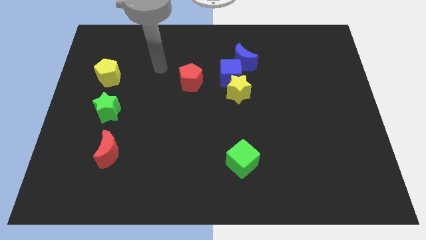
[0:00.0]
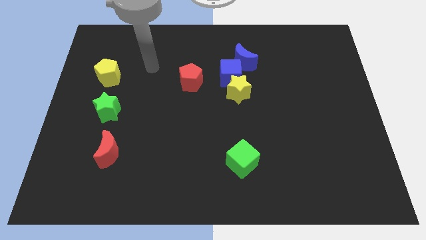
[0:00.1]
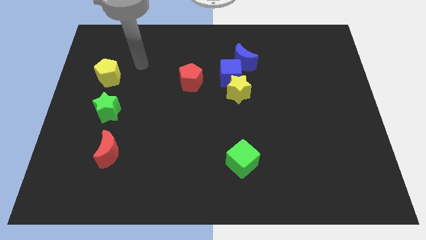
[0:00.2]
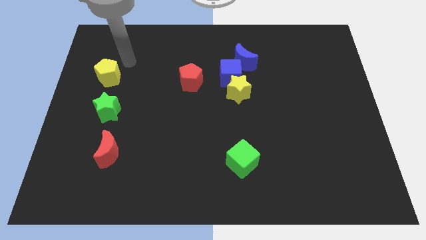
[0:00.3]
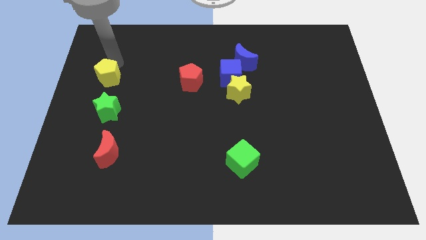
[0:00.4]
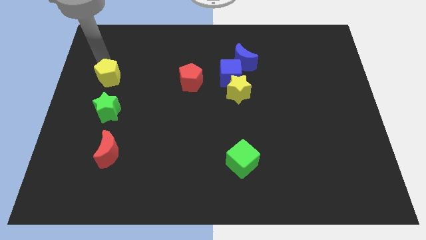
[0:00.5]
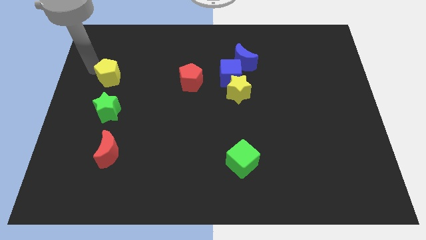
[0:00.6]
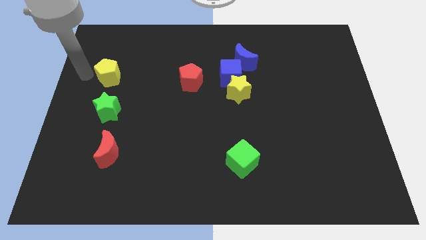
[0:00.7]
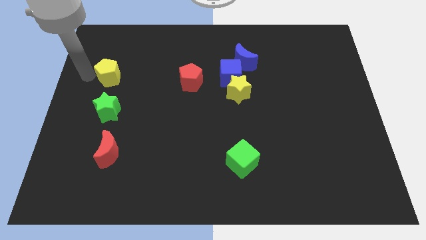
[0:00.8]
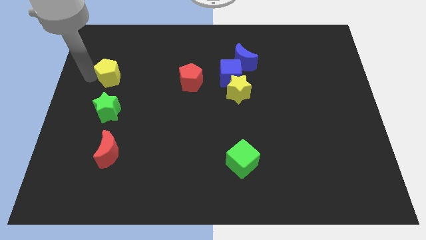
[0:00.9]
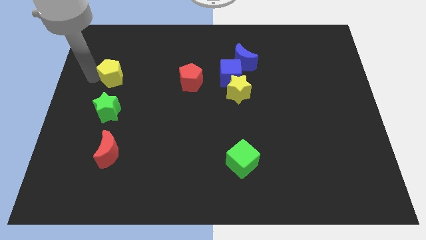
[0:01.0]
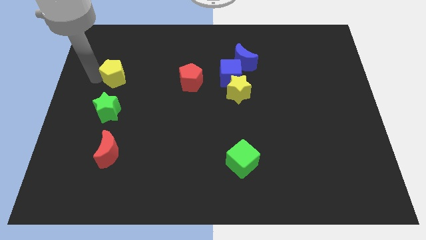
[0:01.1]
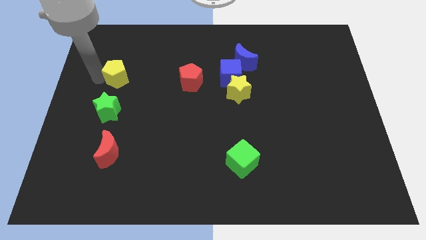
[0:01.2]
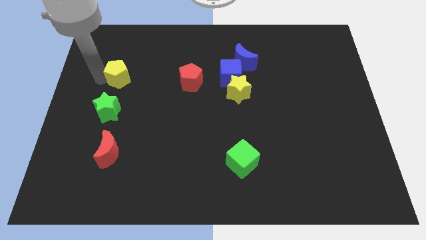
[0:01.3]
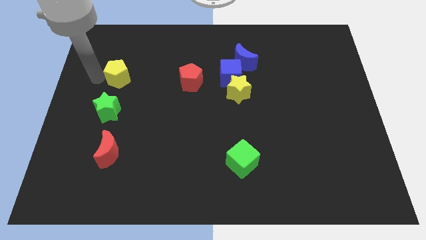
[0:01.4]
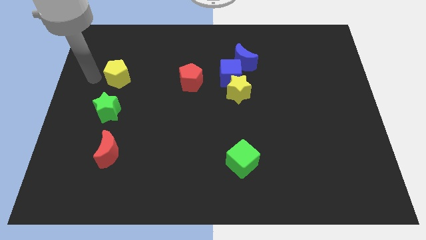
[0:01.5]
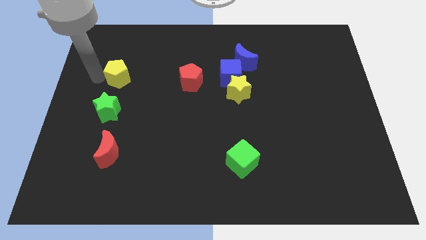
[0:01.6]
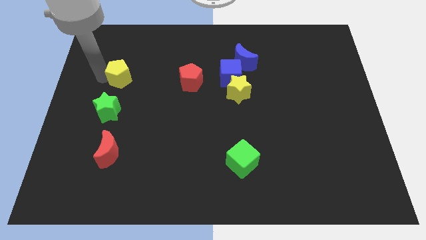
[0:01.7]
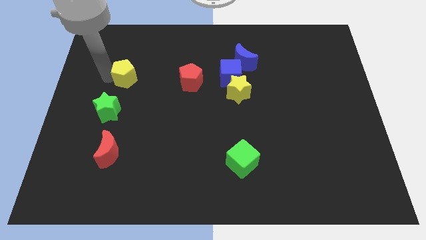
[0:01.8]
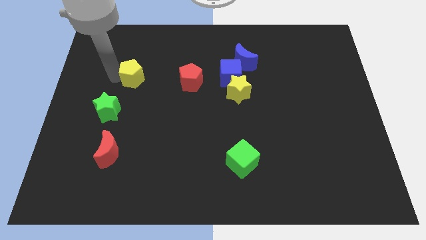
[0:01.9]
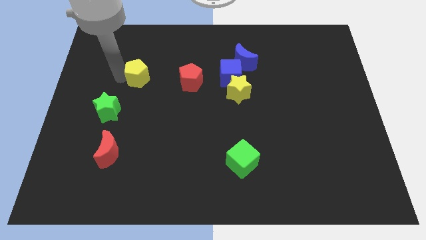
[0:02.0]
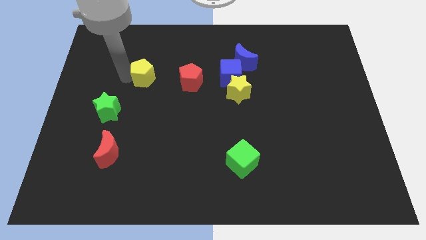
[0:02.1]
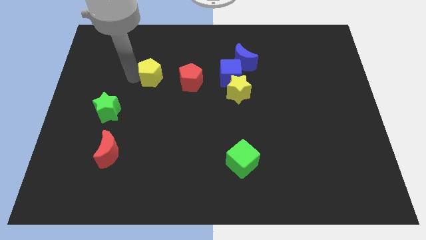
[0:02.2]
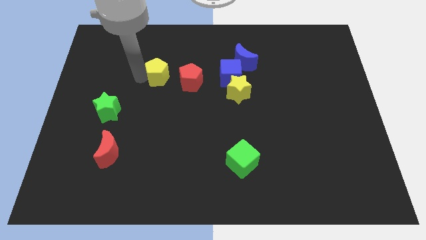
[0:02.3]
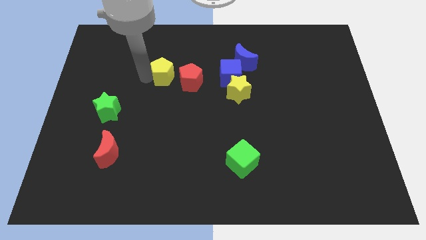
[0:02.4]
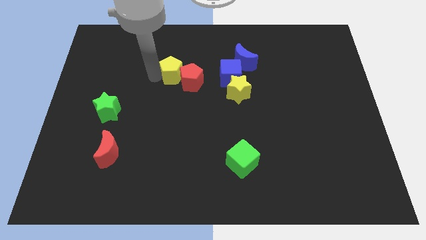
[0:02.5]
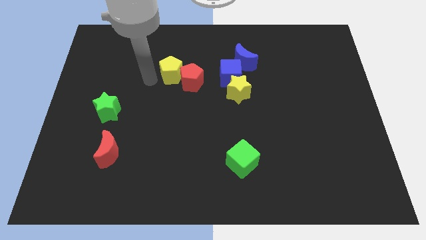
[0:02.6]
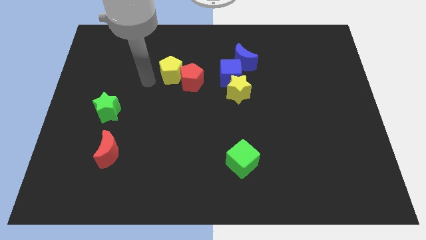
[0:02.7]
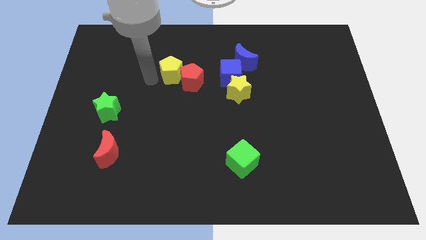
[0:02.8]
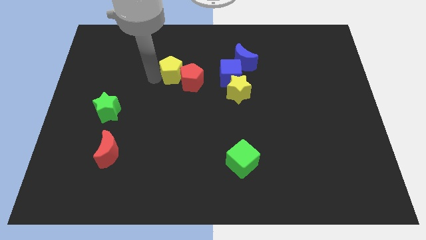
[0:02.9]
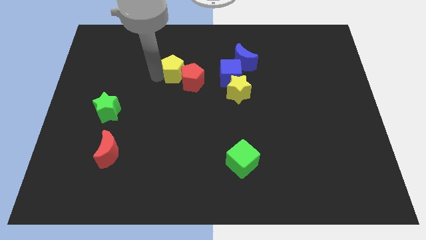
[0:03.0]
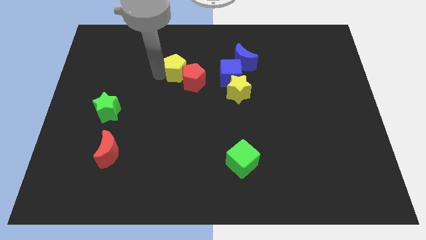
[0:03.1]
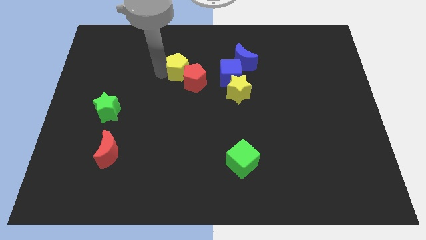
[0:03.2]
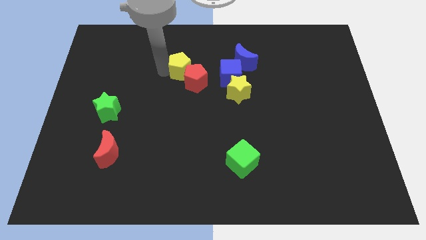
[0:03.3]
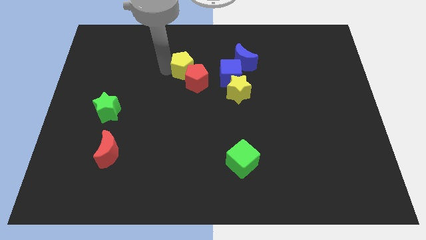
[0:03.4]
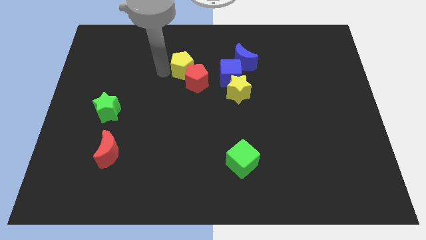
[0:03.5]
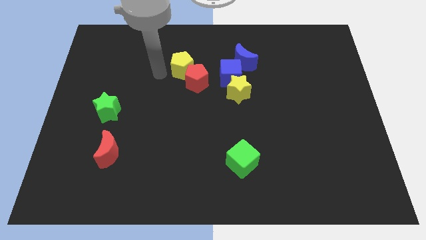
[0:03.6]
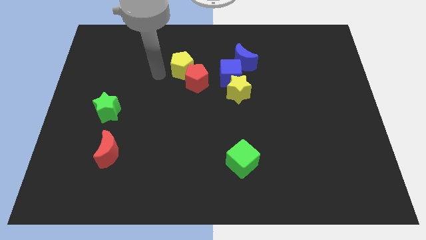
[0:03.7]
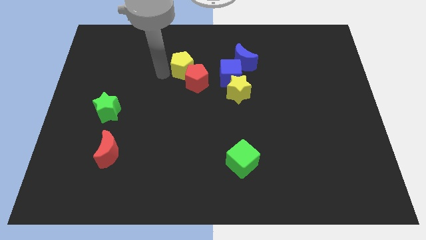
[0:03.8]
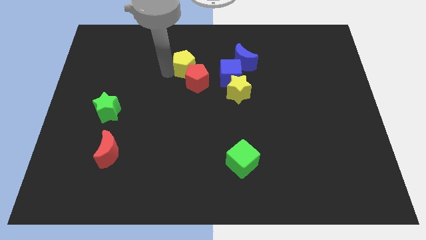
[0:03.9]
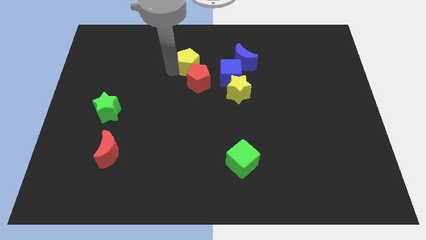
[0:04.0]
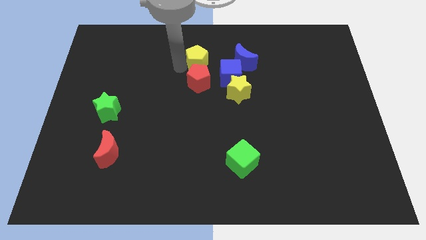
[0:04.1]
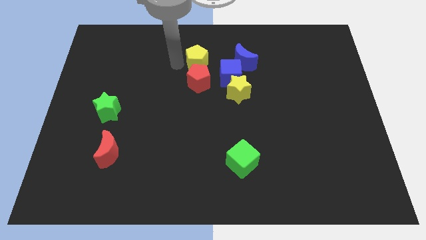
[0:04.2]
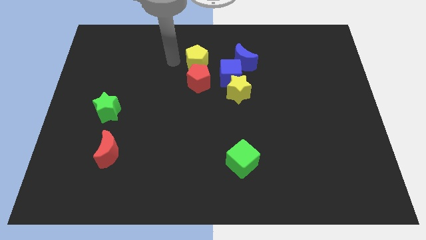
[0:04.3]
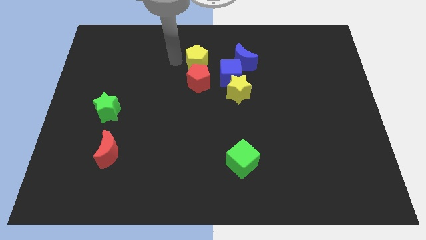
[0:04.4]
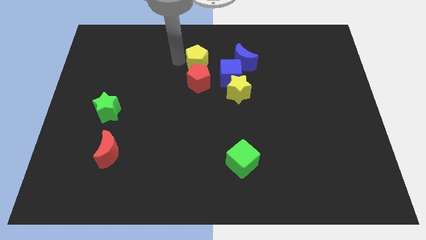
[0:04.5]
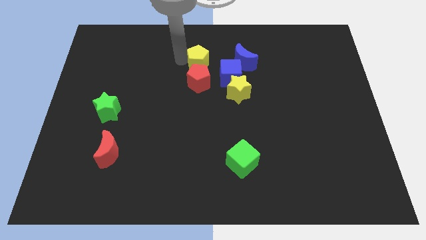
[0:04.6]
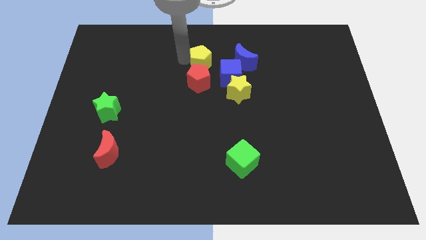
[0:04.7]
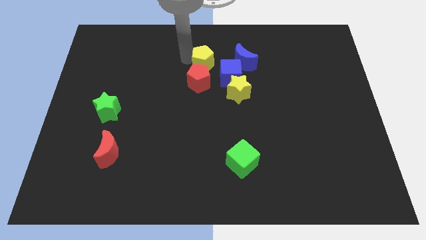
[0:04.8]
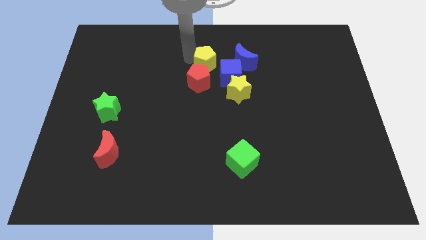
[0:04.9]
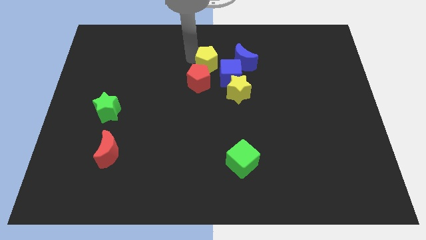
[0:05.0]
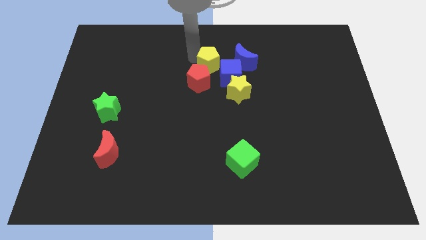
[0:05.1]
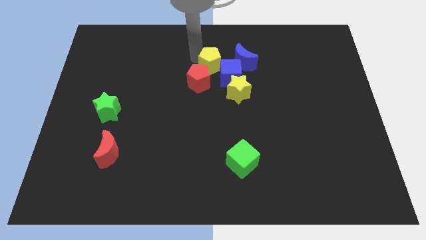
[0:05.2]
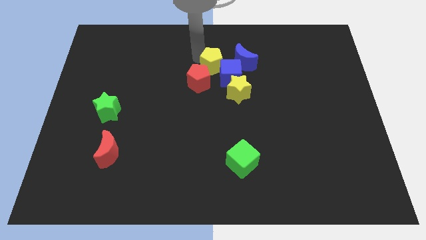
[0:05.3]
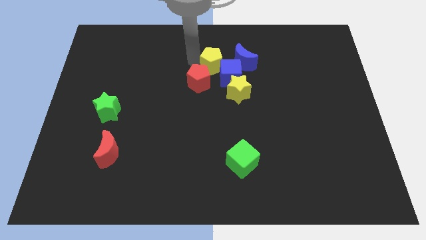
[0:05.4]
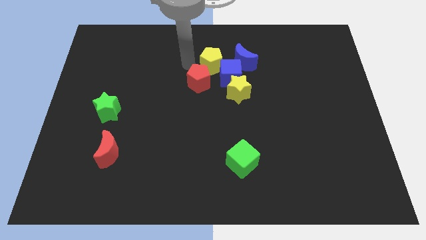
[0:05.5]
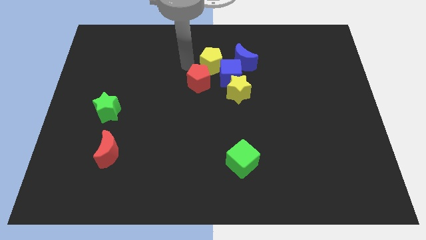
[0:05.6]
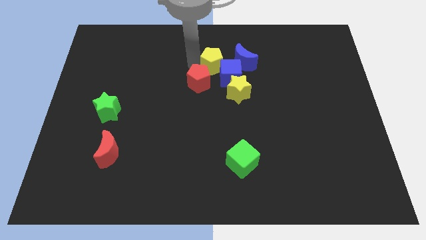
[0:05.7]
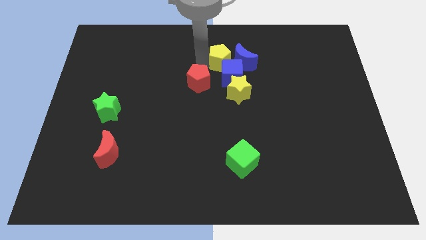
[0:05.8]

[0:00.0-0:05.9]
push the yellow pentagon next to the blue moon

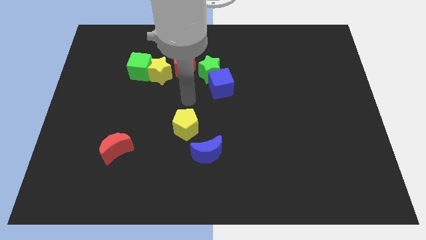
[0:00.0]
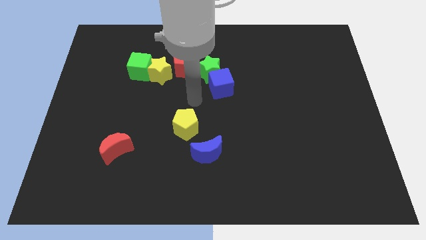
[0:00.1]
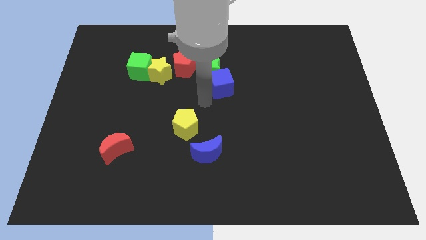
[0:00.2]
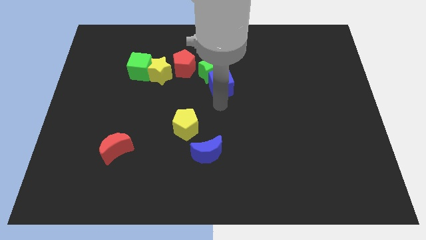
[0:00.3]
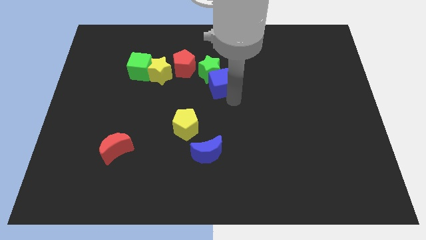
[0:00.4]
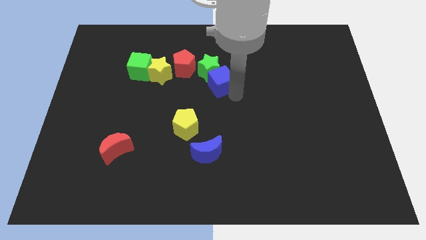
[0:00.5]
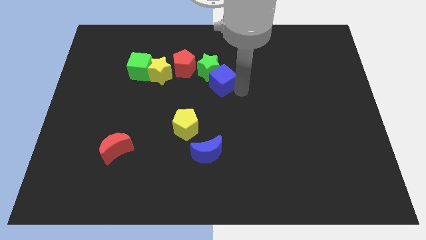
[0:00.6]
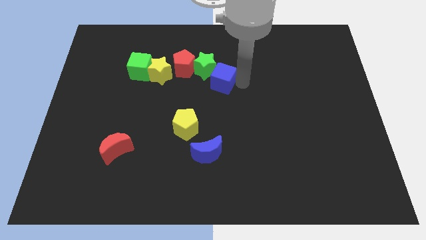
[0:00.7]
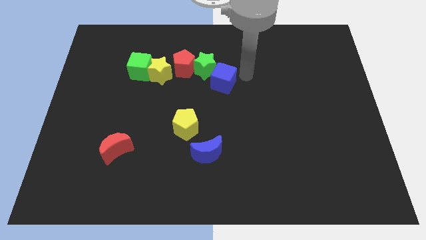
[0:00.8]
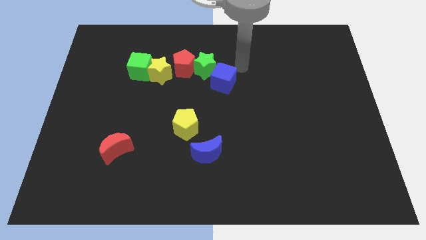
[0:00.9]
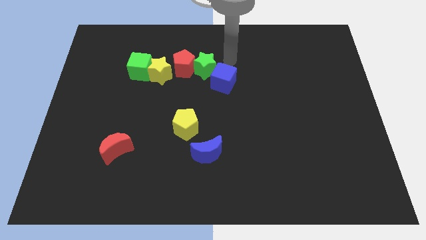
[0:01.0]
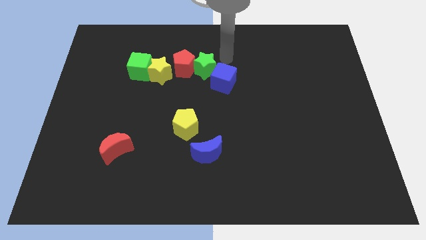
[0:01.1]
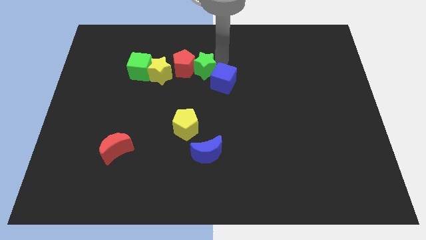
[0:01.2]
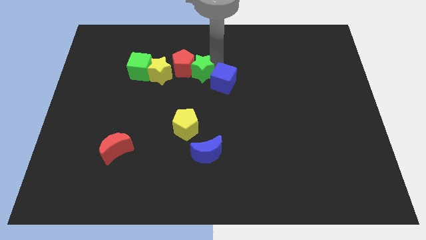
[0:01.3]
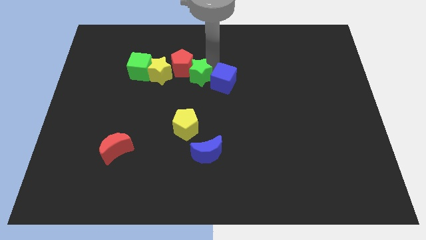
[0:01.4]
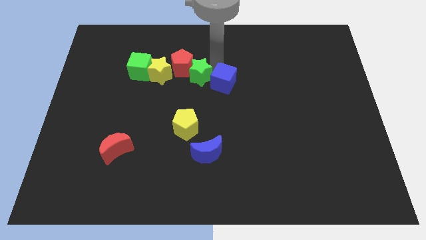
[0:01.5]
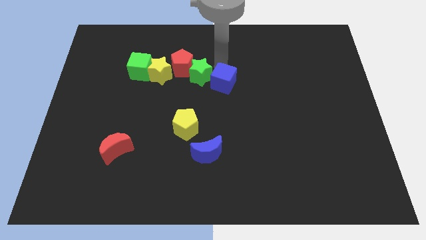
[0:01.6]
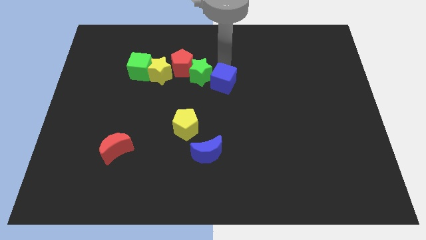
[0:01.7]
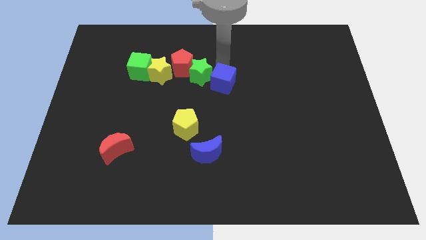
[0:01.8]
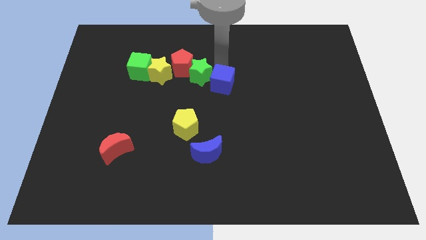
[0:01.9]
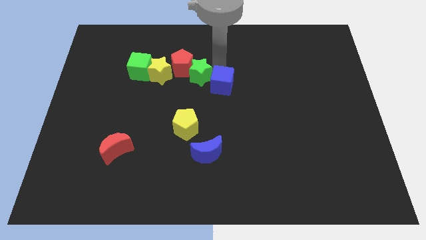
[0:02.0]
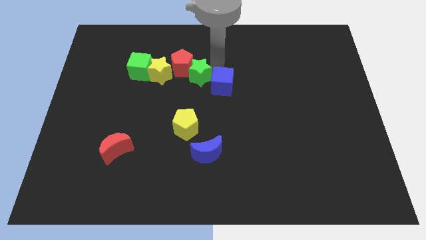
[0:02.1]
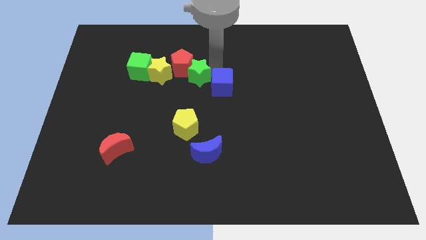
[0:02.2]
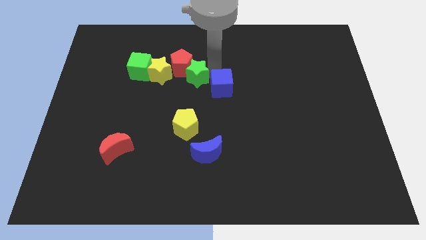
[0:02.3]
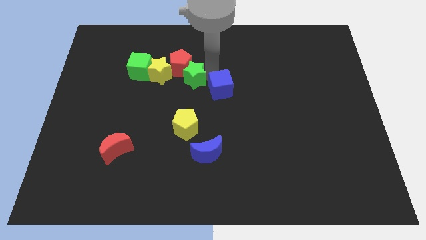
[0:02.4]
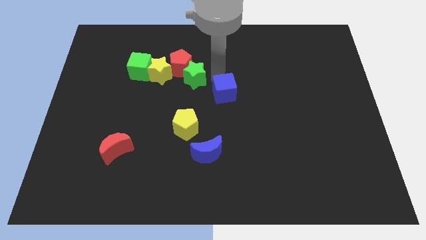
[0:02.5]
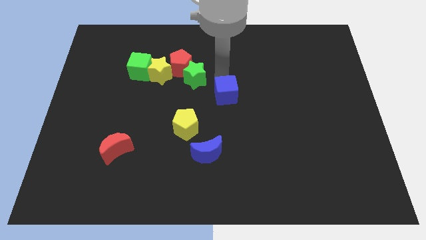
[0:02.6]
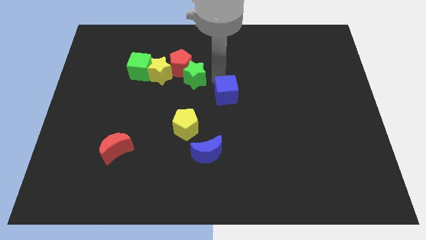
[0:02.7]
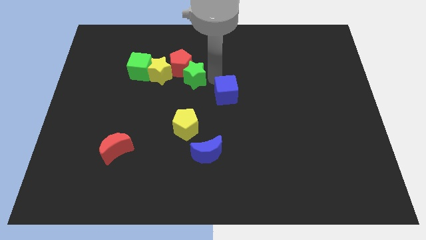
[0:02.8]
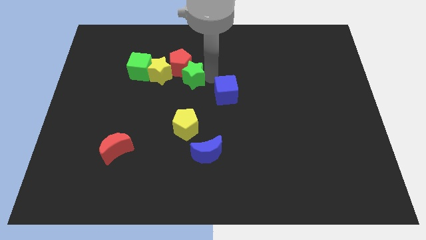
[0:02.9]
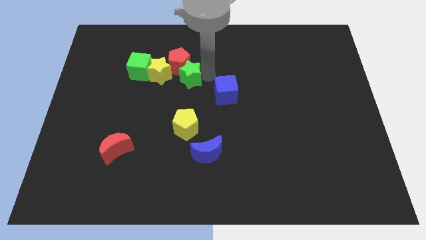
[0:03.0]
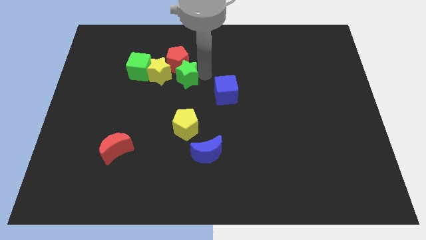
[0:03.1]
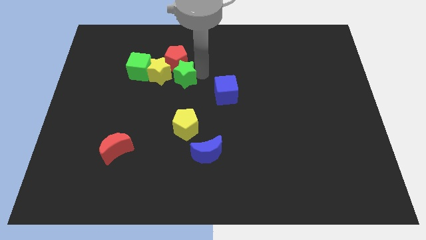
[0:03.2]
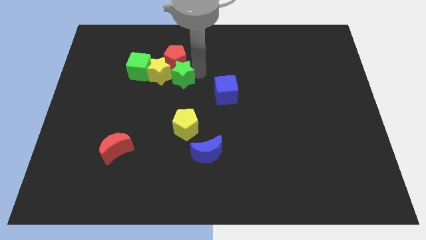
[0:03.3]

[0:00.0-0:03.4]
move the green star next to the yellow star
